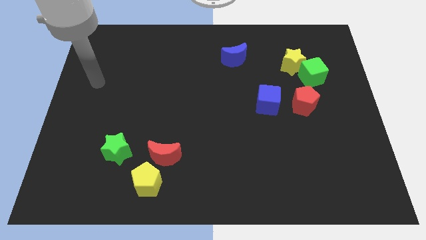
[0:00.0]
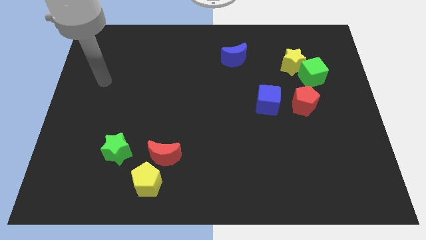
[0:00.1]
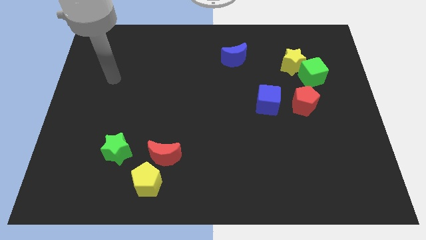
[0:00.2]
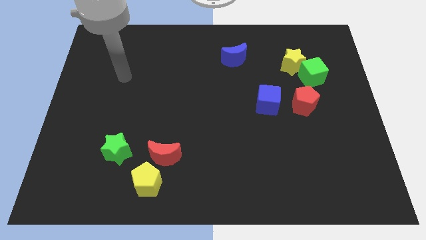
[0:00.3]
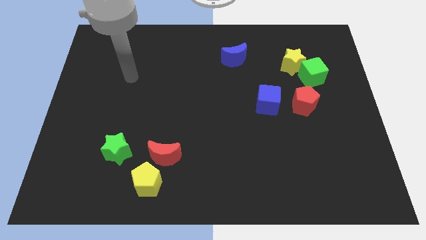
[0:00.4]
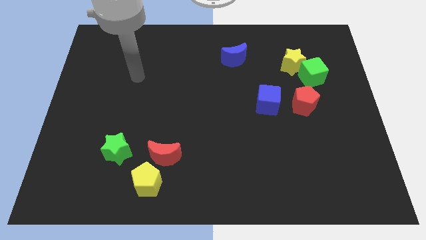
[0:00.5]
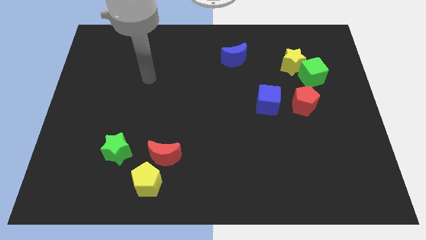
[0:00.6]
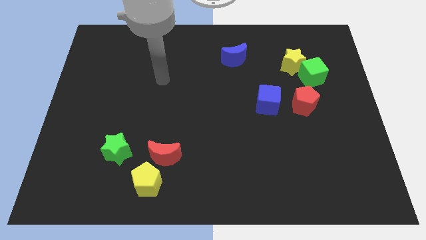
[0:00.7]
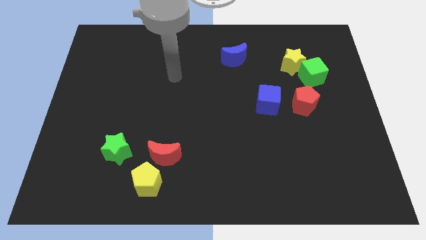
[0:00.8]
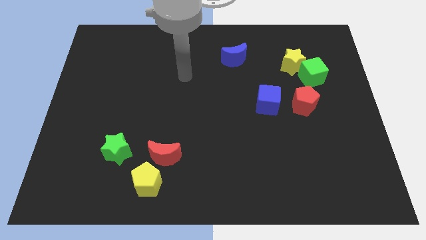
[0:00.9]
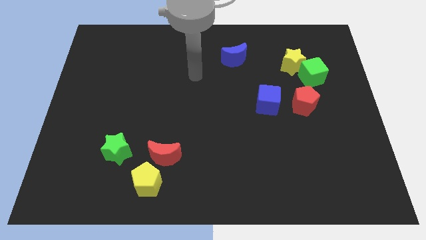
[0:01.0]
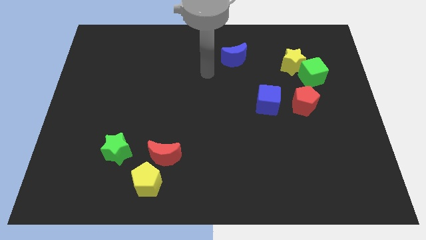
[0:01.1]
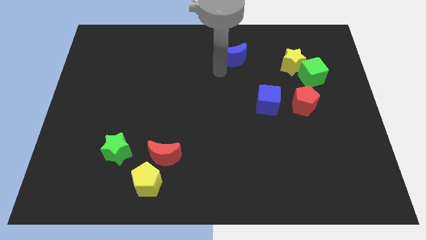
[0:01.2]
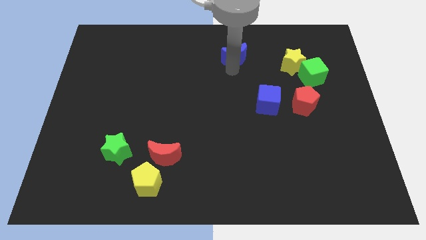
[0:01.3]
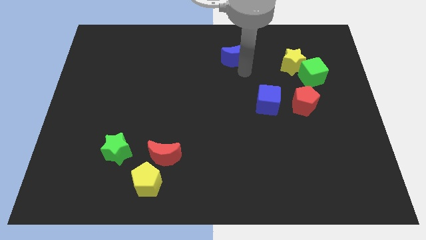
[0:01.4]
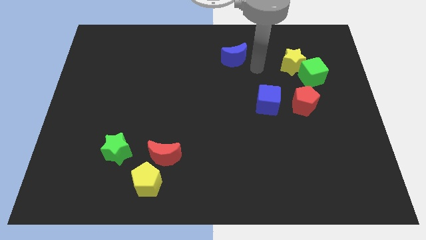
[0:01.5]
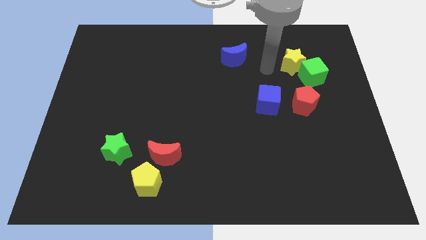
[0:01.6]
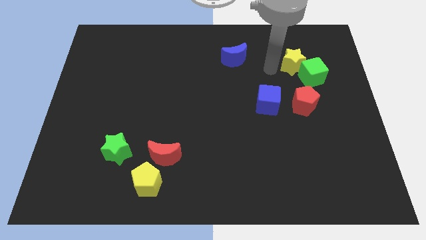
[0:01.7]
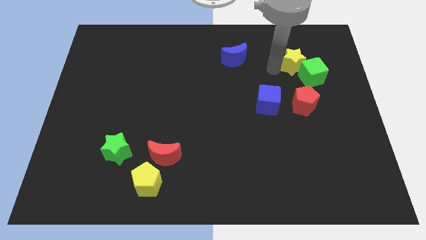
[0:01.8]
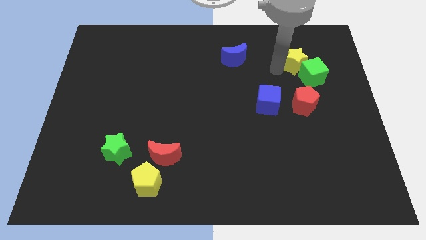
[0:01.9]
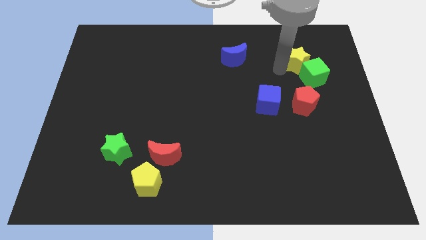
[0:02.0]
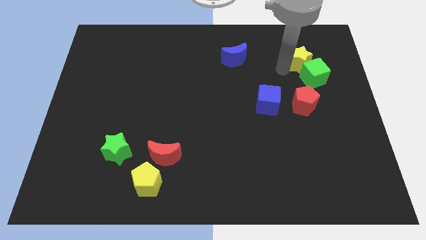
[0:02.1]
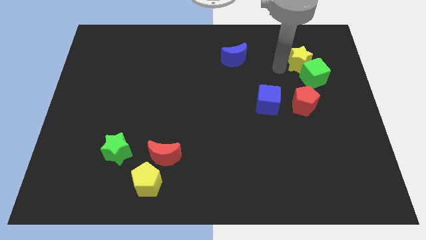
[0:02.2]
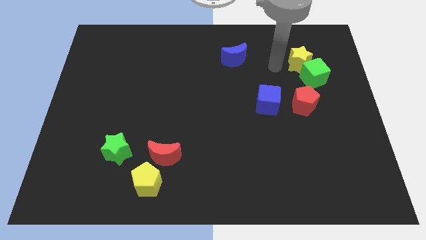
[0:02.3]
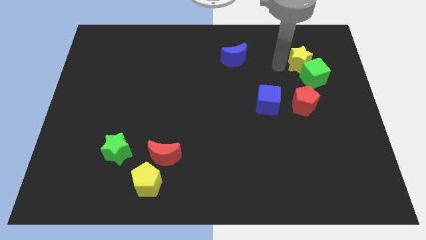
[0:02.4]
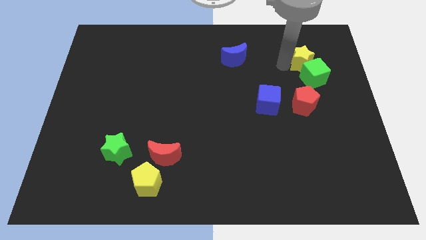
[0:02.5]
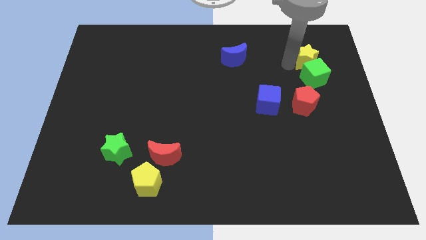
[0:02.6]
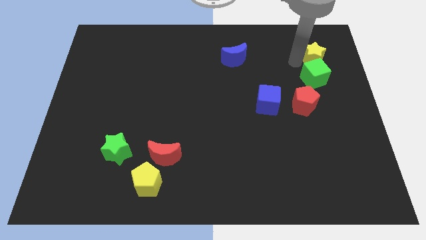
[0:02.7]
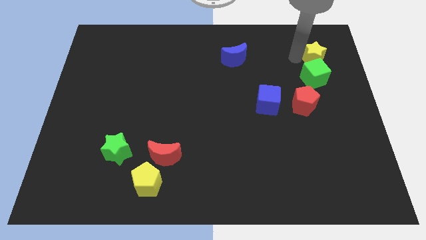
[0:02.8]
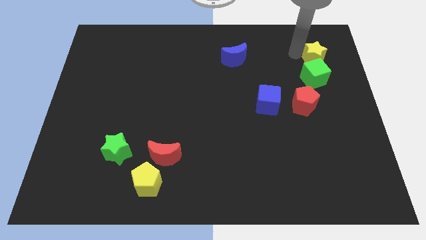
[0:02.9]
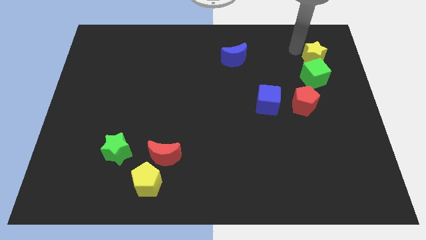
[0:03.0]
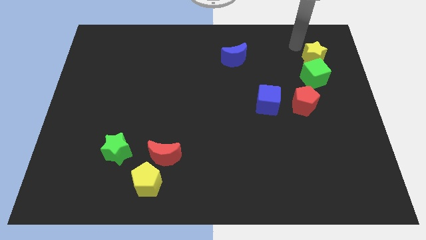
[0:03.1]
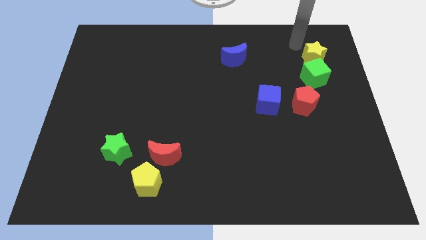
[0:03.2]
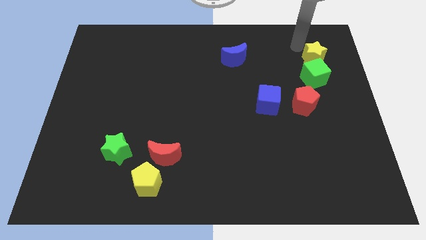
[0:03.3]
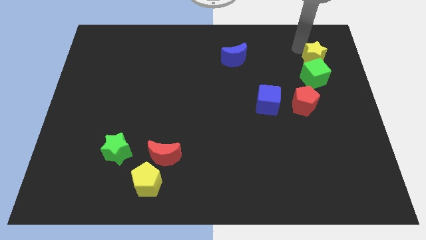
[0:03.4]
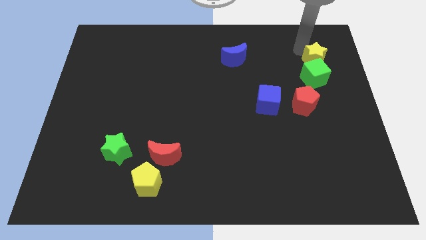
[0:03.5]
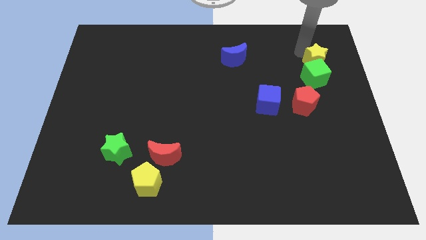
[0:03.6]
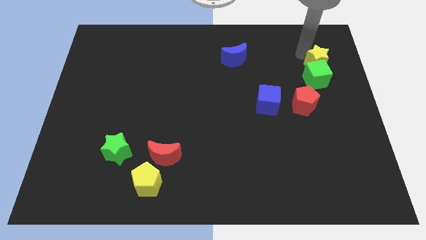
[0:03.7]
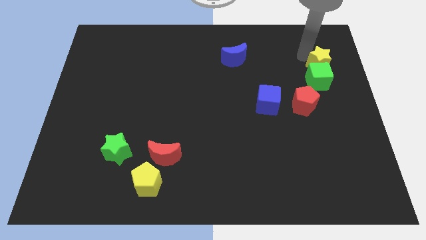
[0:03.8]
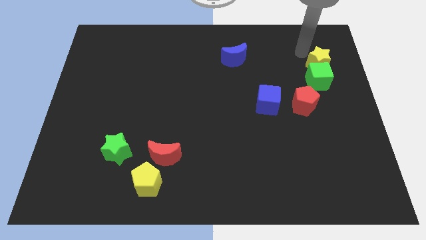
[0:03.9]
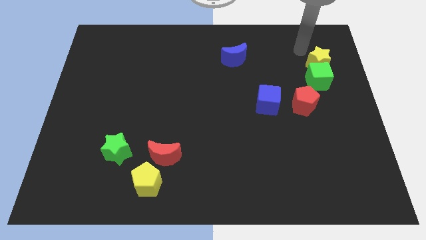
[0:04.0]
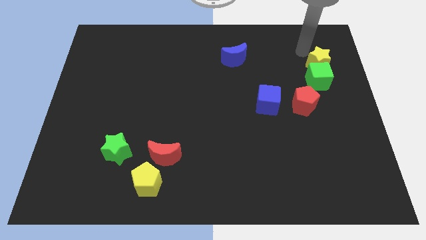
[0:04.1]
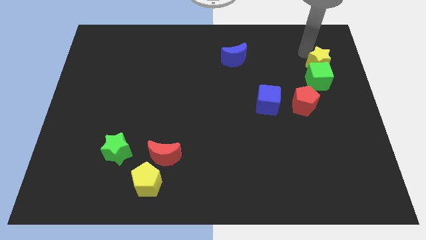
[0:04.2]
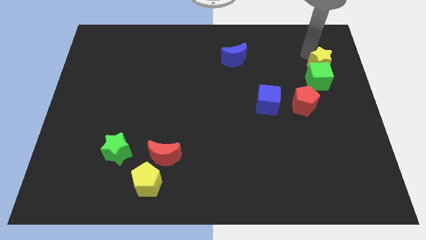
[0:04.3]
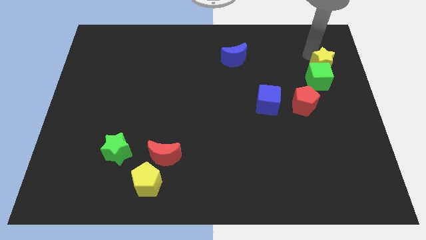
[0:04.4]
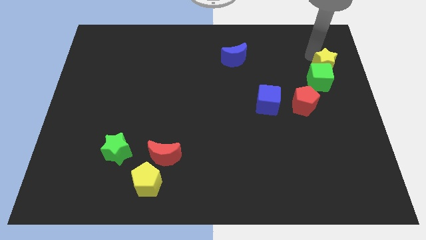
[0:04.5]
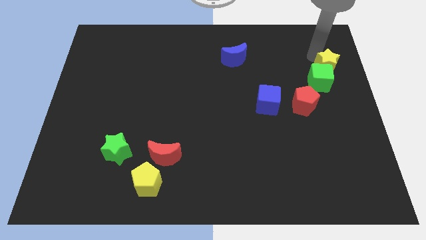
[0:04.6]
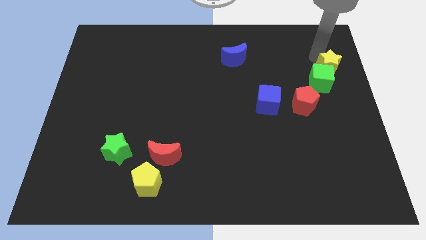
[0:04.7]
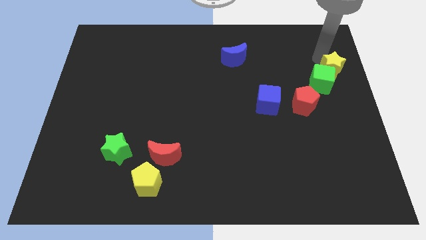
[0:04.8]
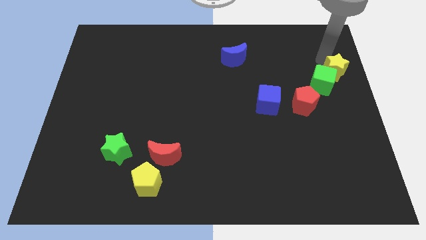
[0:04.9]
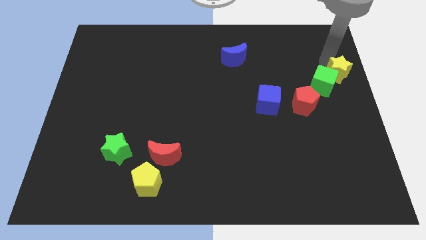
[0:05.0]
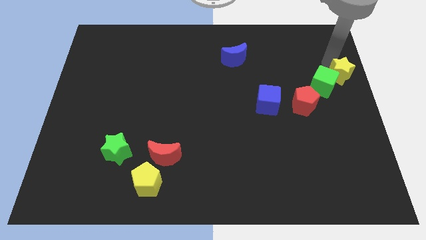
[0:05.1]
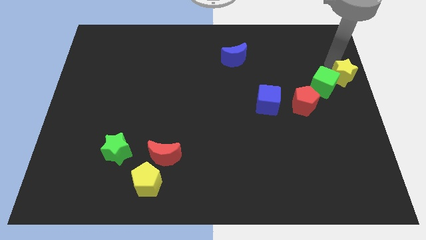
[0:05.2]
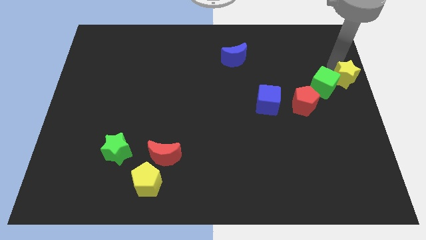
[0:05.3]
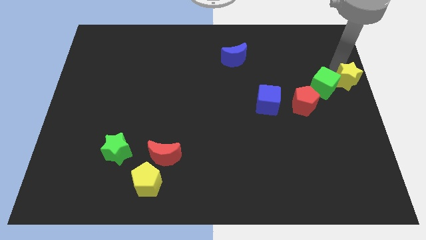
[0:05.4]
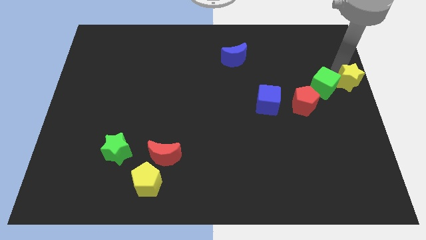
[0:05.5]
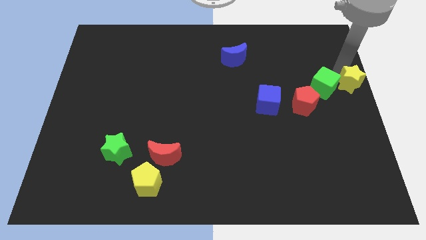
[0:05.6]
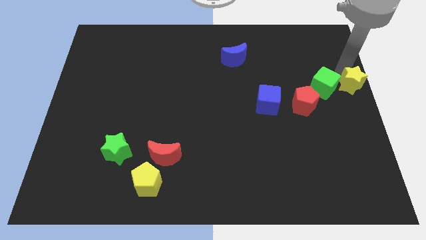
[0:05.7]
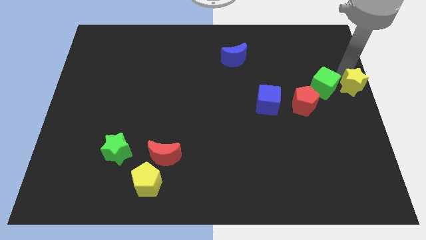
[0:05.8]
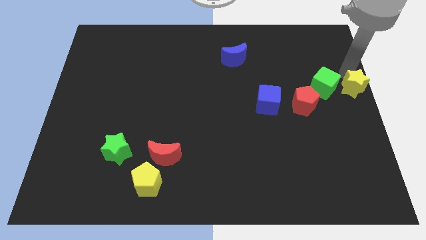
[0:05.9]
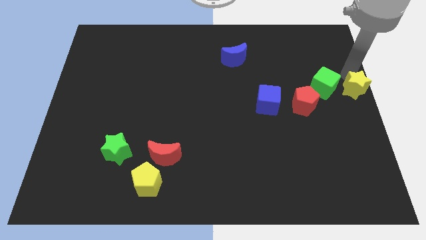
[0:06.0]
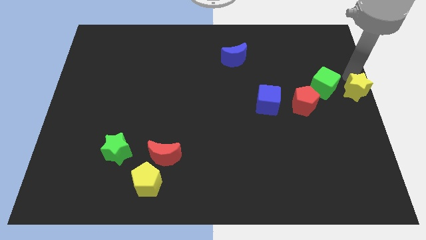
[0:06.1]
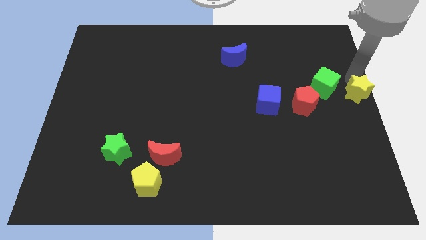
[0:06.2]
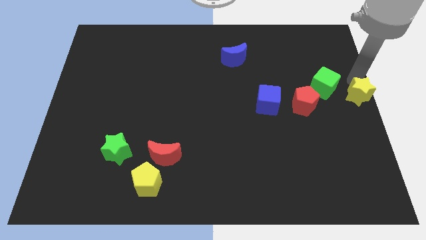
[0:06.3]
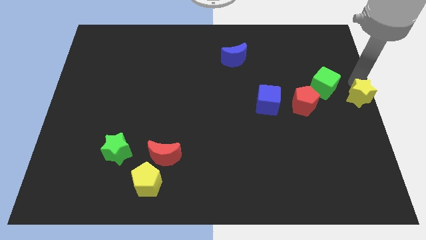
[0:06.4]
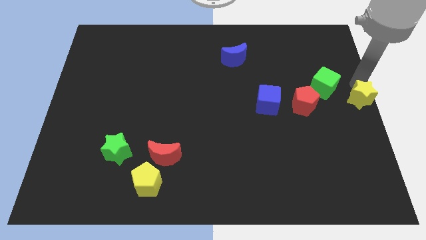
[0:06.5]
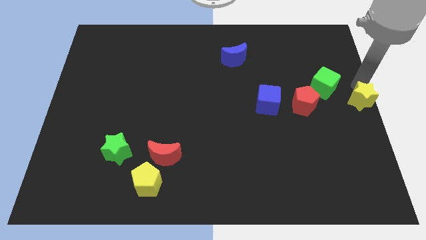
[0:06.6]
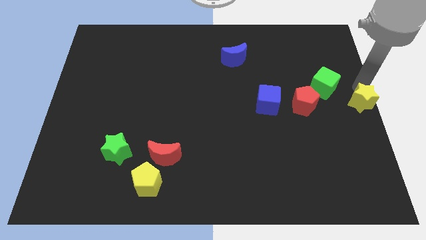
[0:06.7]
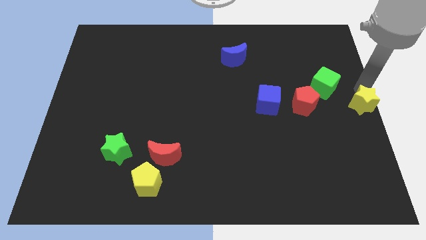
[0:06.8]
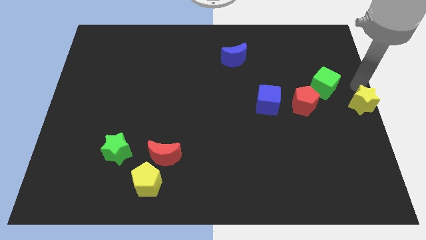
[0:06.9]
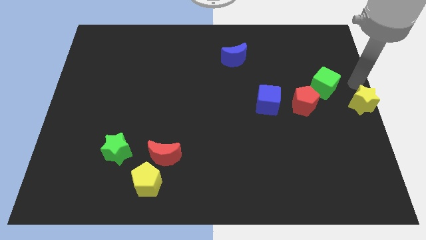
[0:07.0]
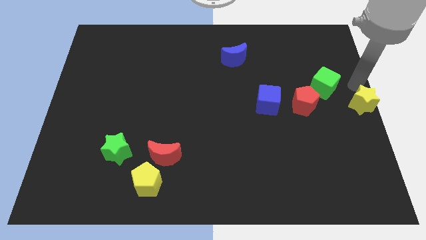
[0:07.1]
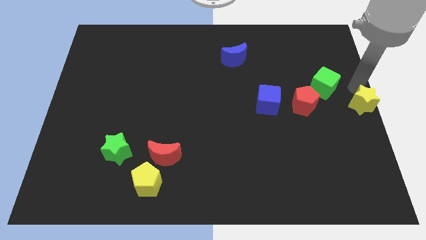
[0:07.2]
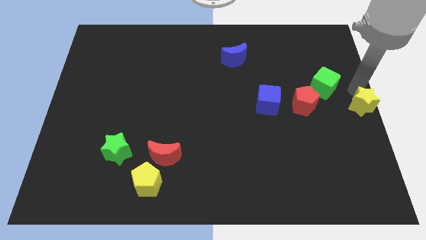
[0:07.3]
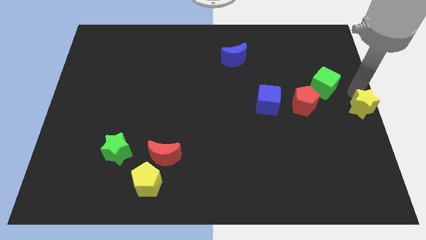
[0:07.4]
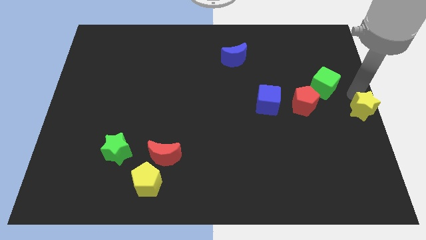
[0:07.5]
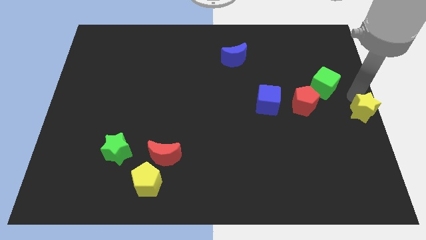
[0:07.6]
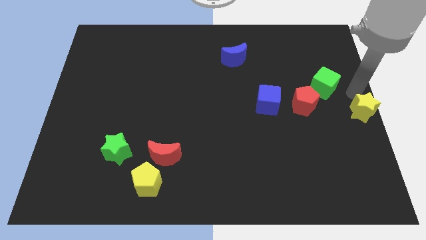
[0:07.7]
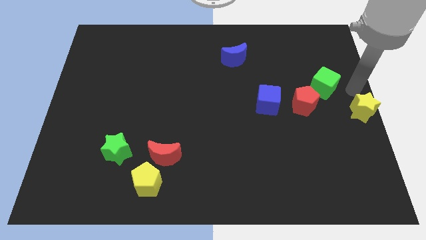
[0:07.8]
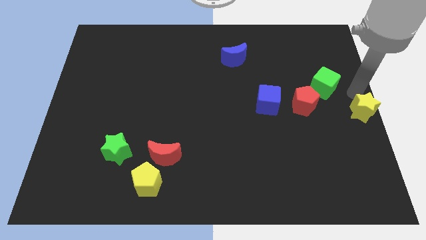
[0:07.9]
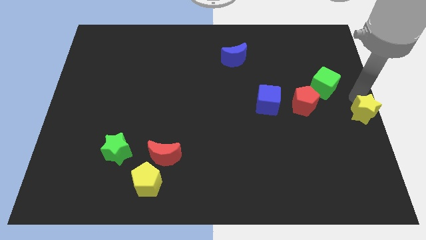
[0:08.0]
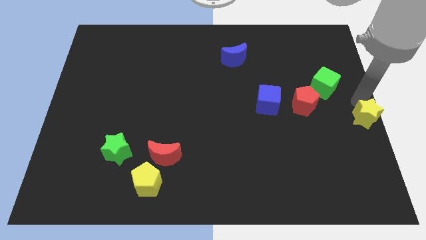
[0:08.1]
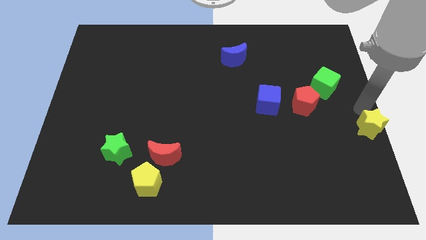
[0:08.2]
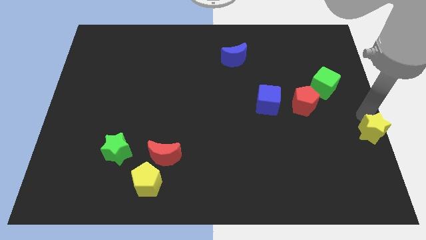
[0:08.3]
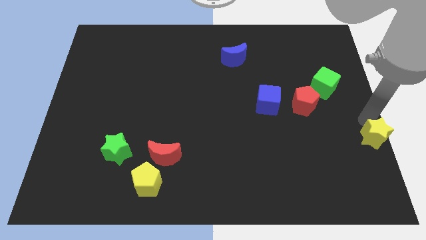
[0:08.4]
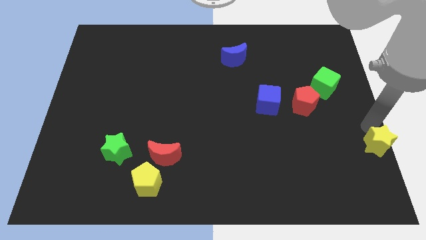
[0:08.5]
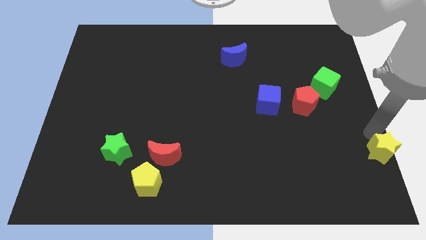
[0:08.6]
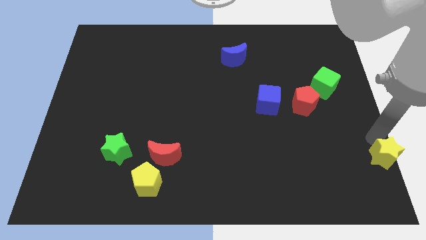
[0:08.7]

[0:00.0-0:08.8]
slide the yellow star to the bottom right
